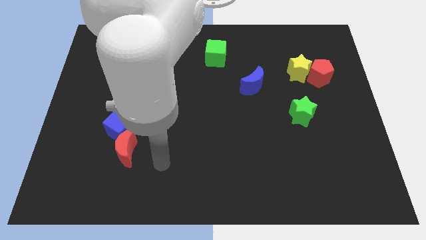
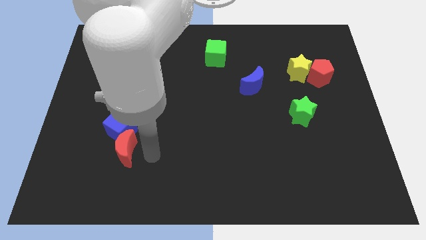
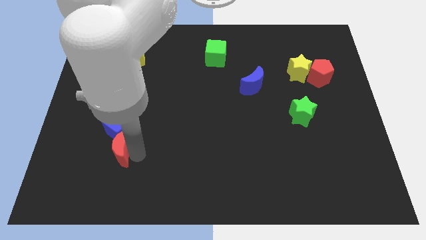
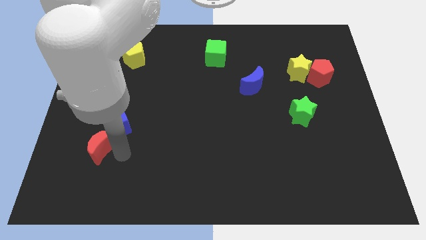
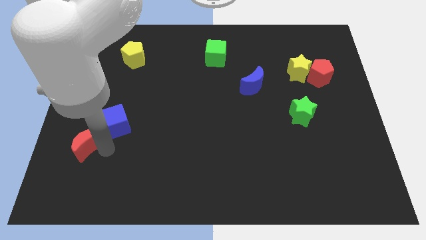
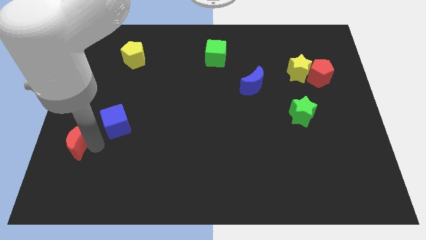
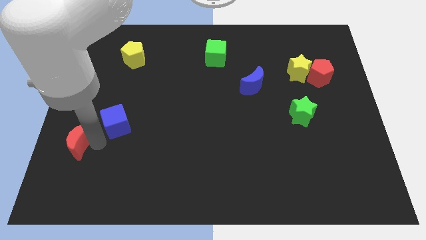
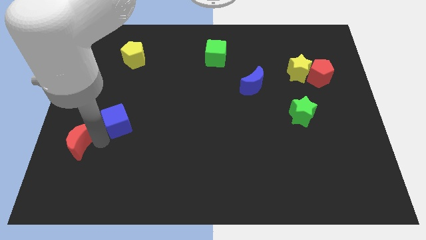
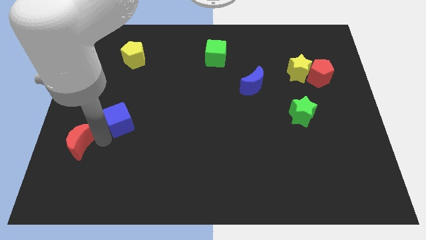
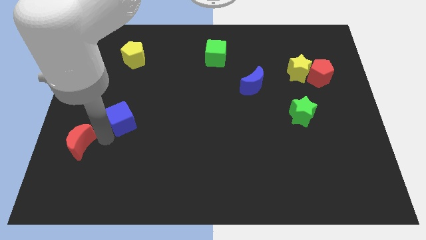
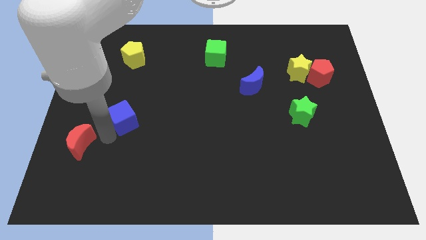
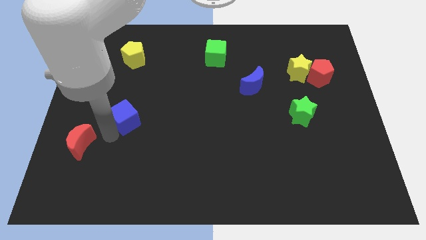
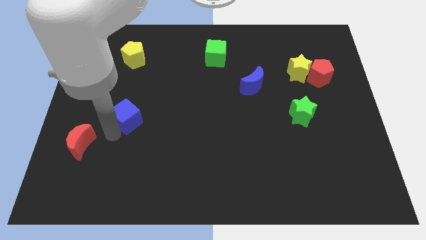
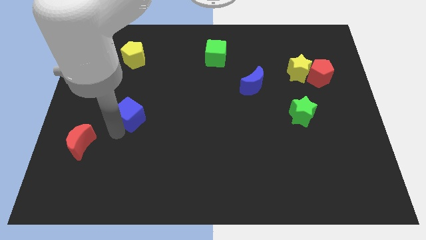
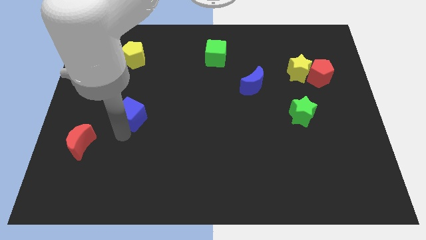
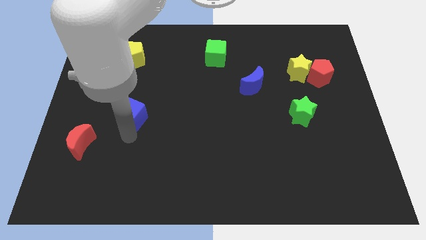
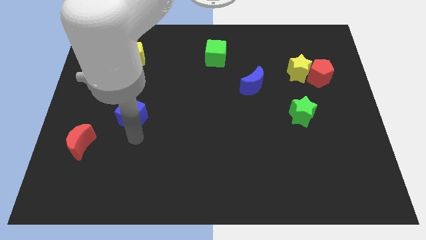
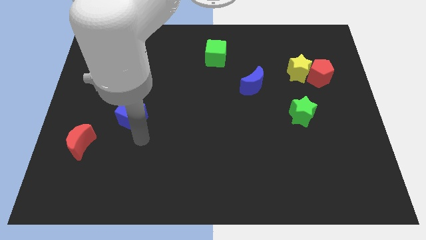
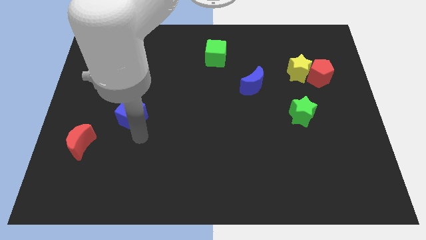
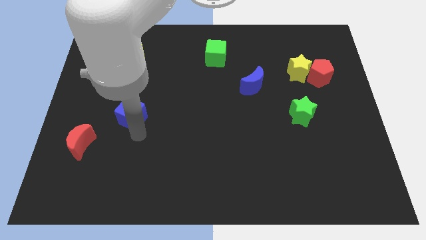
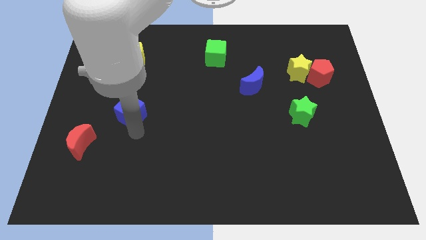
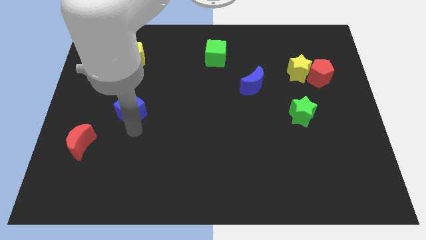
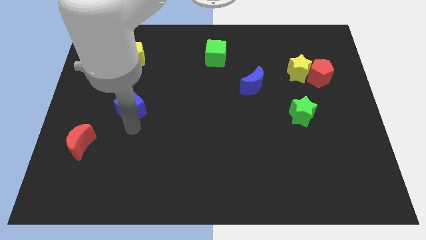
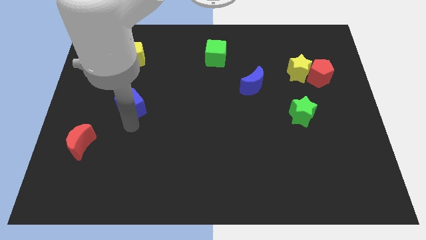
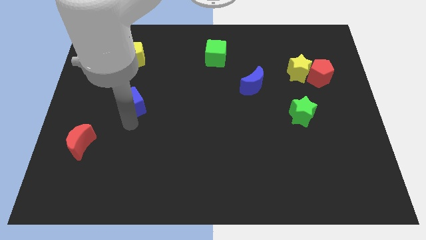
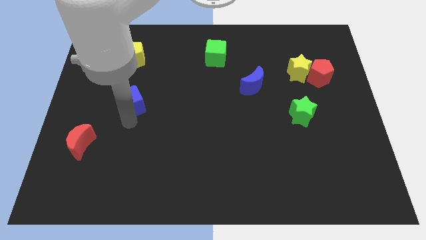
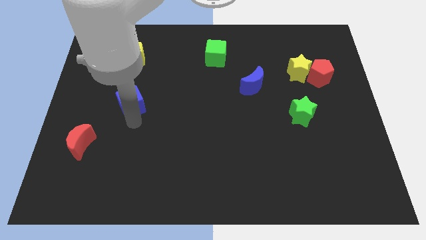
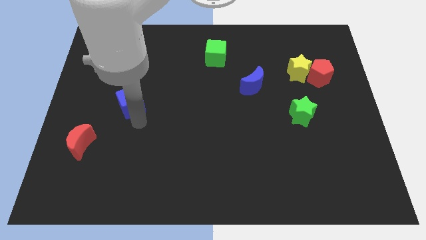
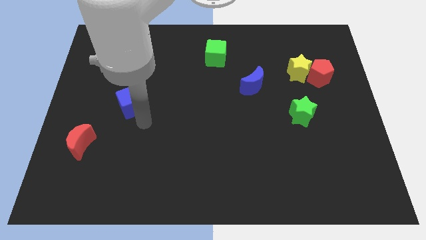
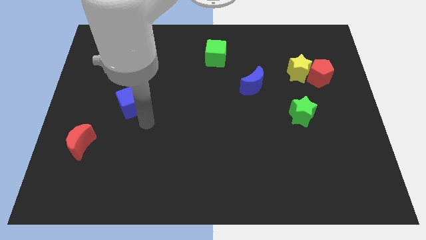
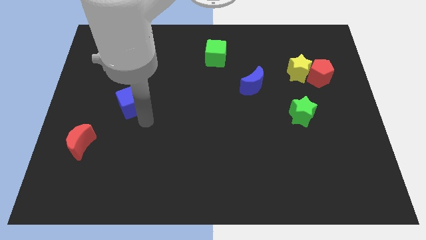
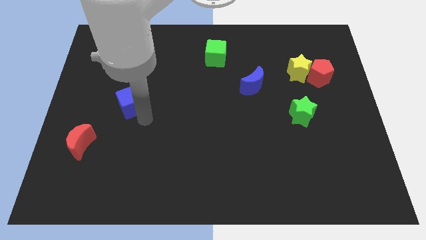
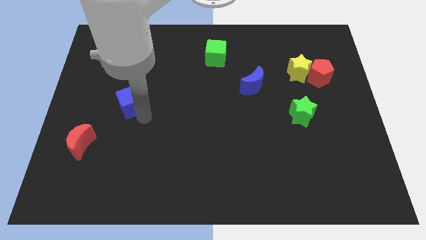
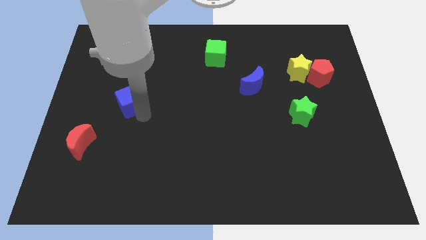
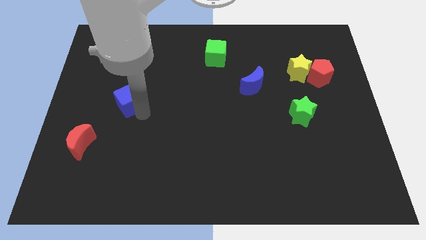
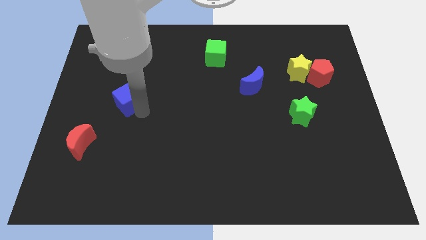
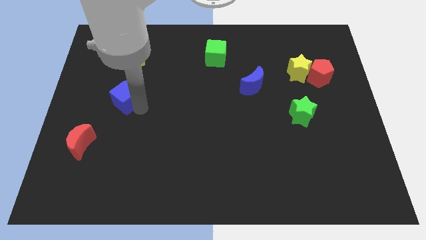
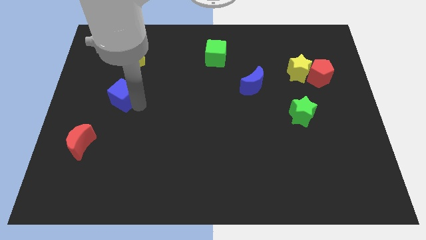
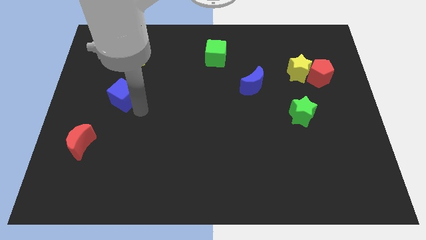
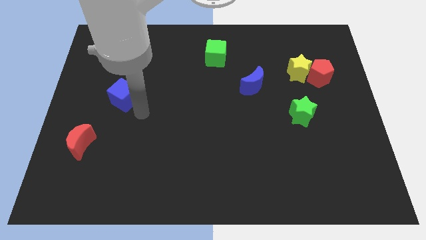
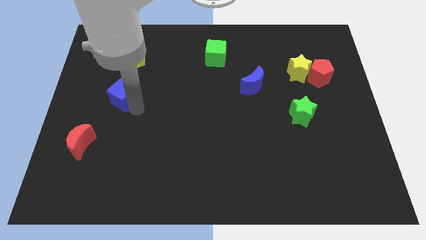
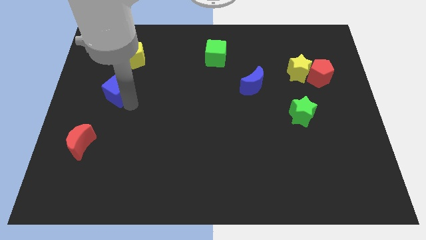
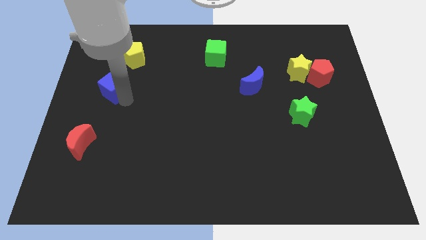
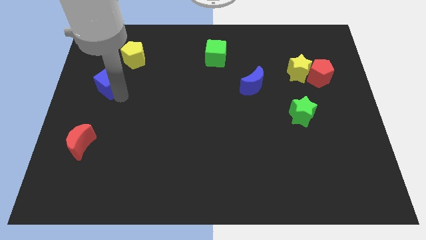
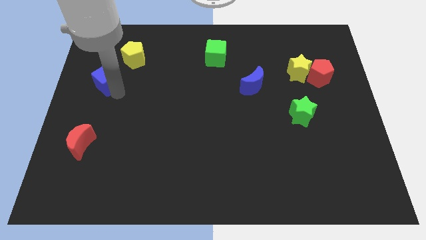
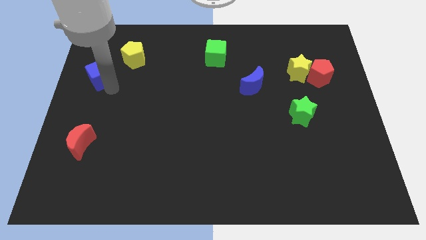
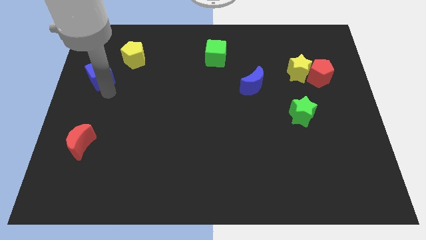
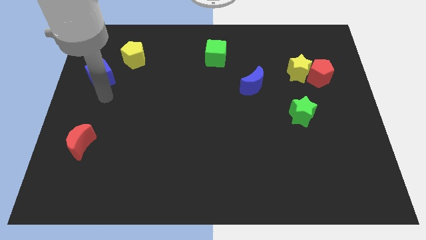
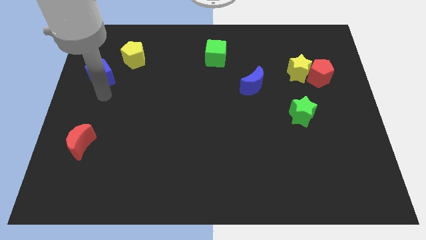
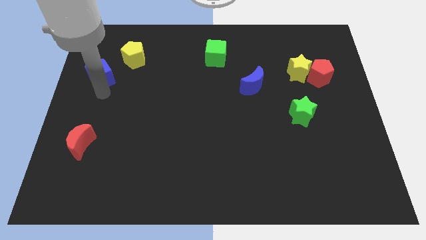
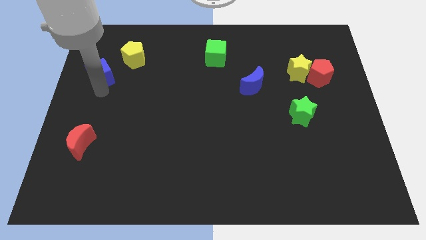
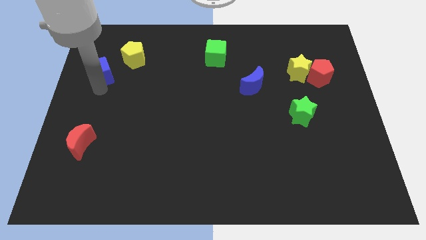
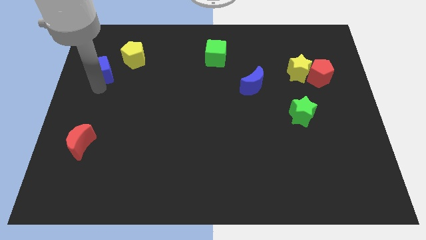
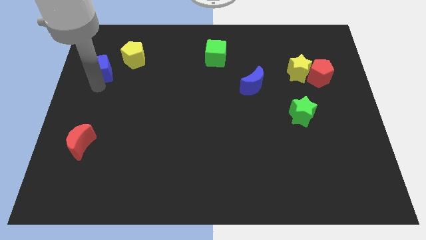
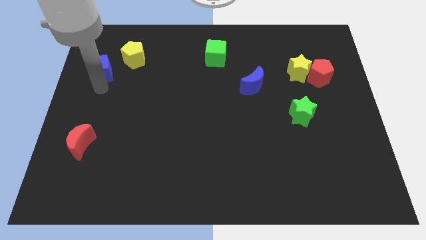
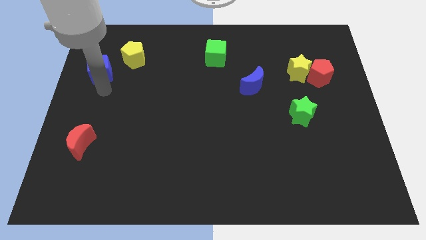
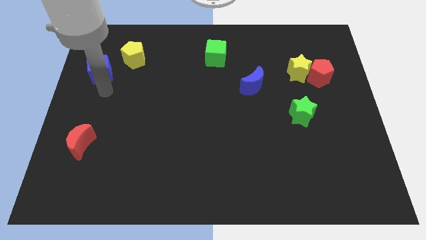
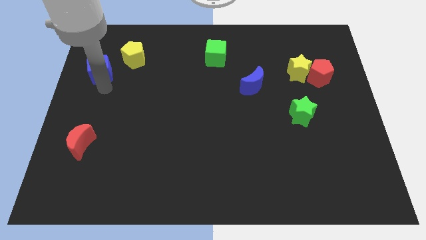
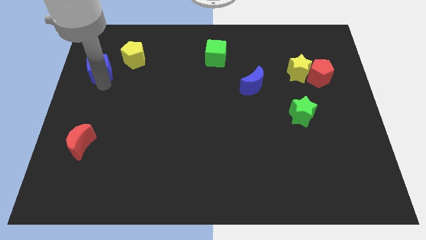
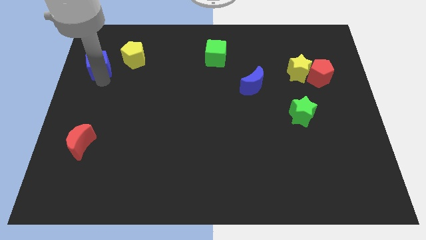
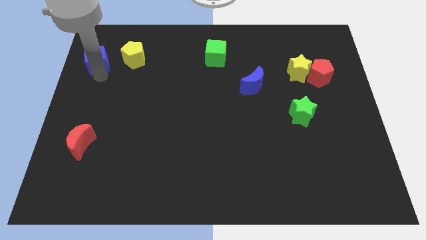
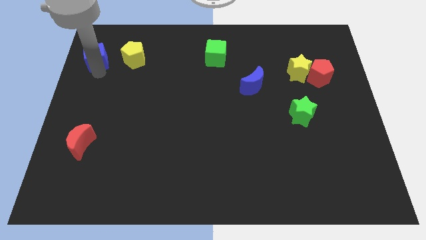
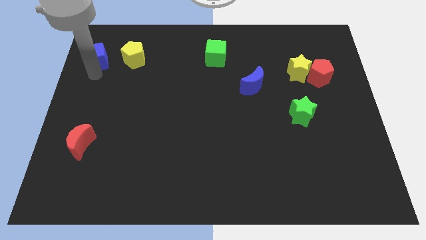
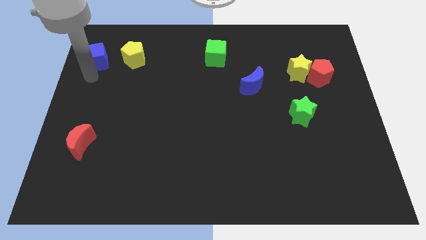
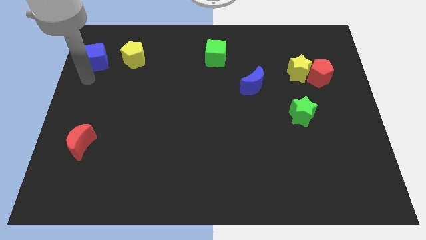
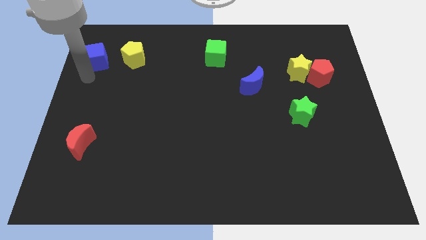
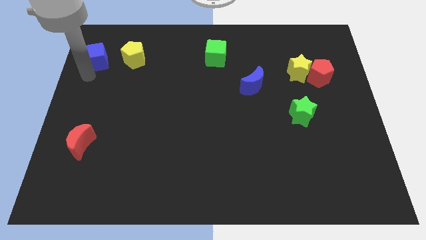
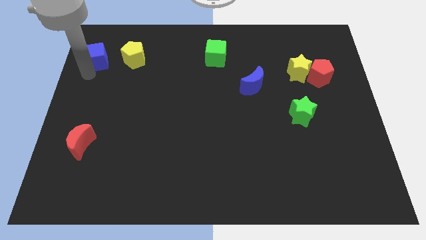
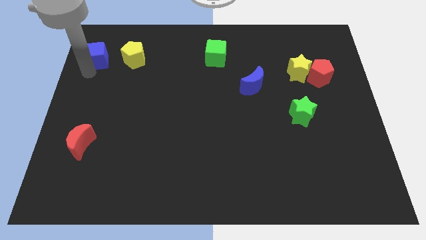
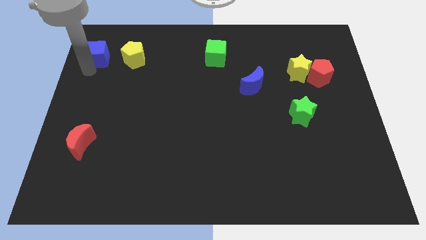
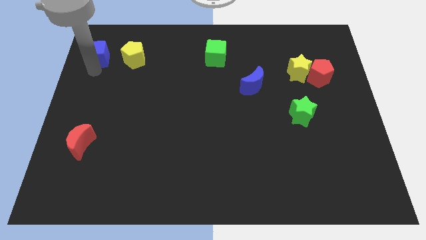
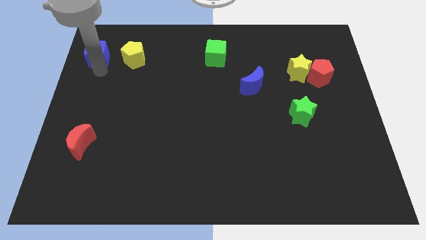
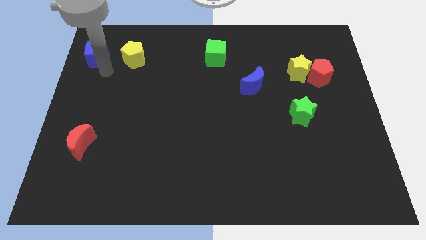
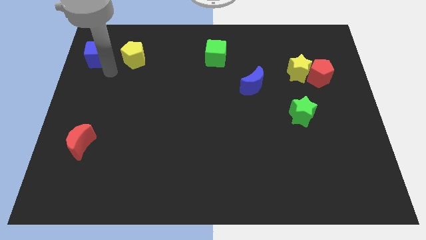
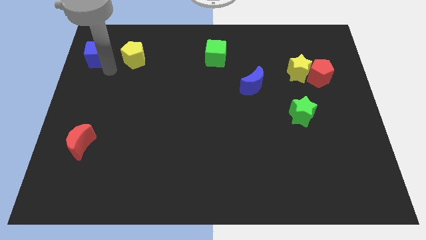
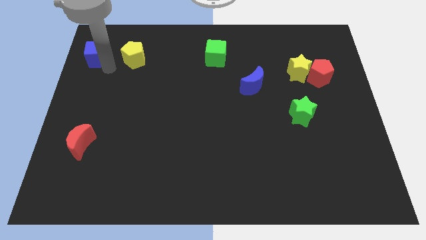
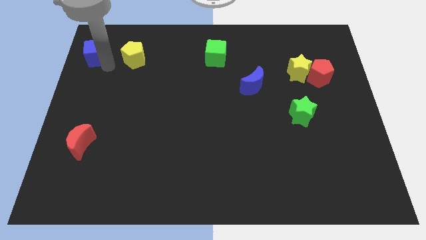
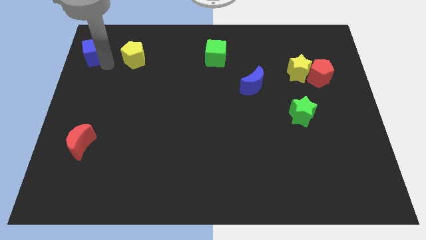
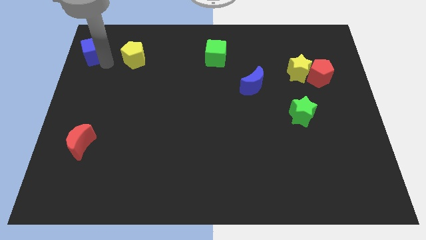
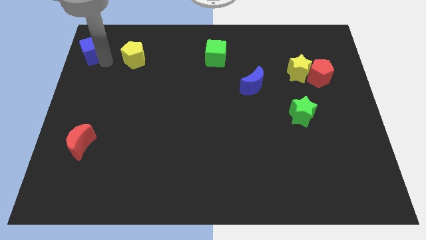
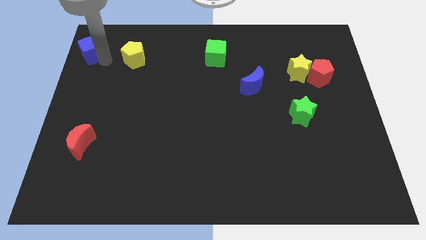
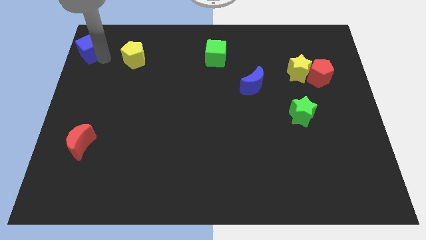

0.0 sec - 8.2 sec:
put the blue cube to the upper left corner
